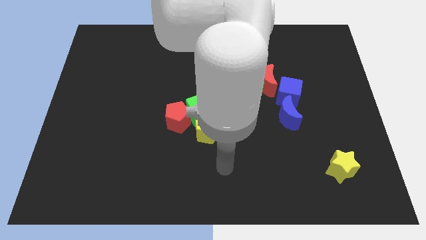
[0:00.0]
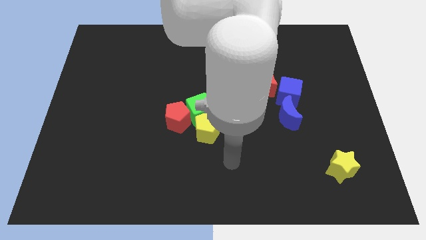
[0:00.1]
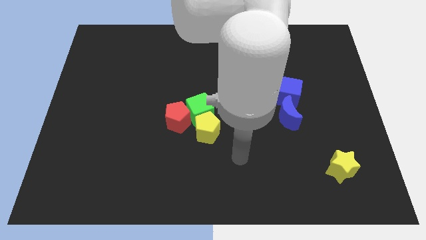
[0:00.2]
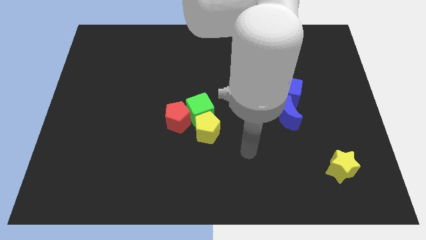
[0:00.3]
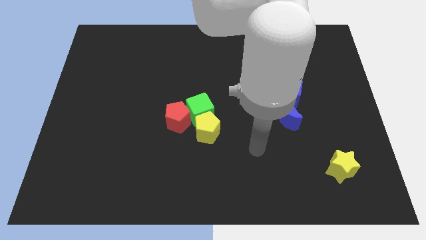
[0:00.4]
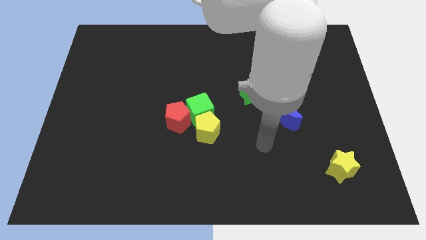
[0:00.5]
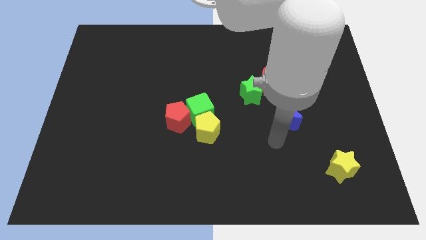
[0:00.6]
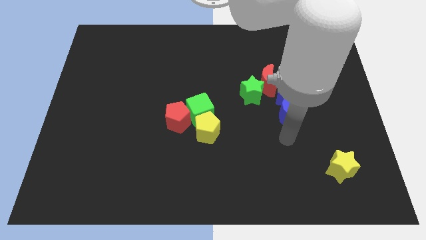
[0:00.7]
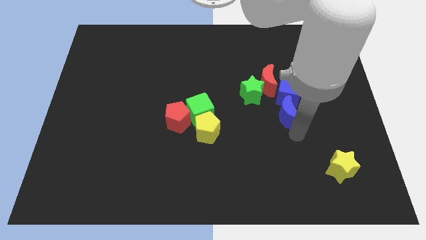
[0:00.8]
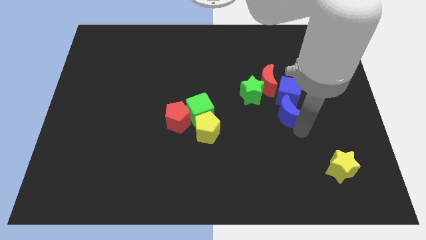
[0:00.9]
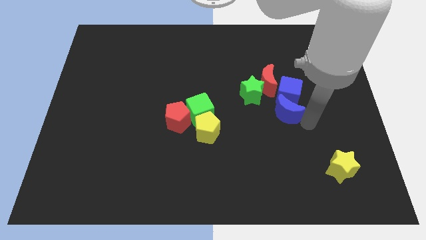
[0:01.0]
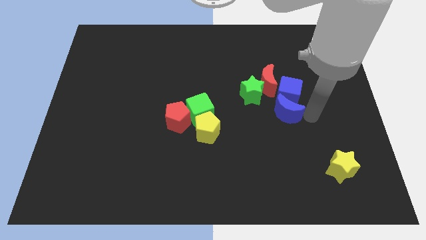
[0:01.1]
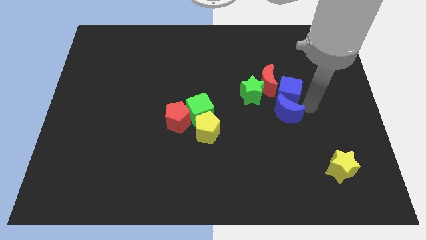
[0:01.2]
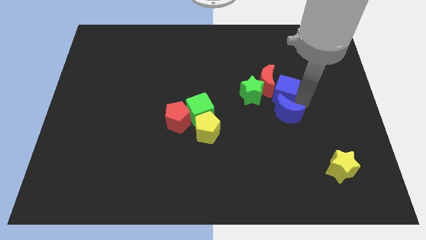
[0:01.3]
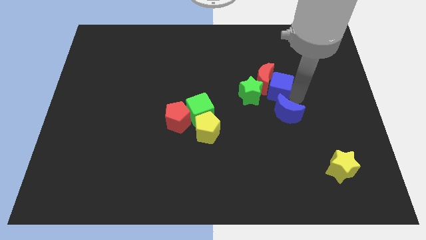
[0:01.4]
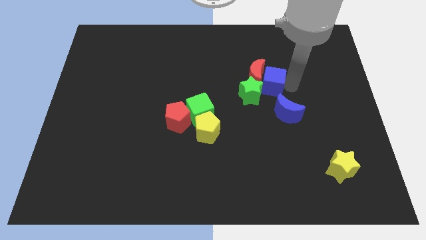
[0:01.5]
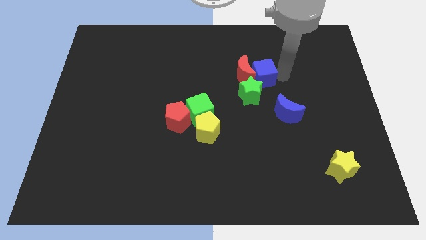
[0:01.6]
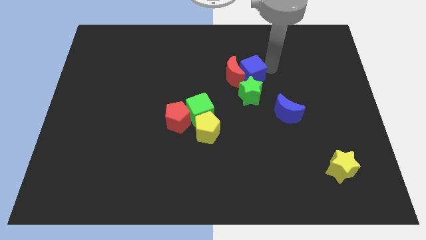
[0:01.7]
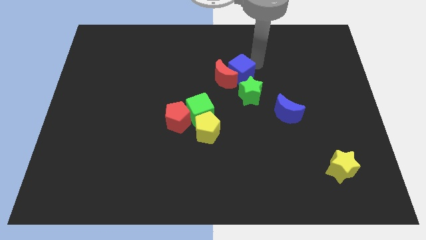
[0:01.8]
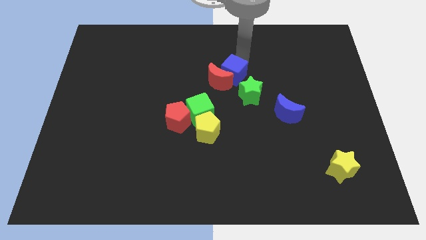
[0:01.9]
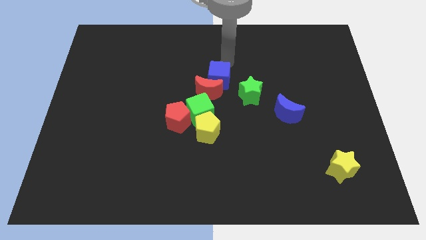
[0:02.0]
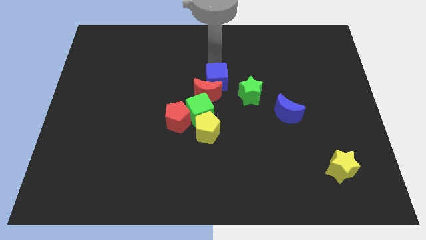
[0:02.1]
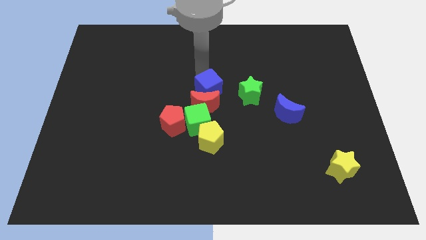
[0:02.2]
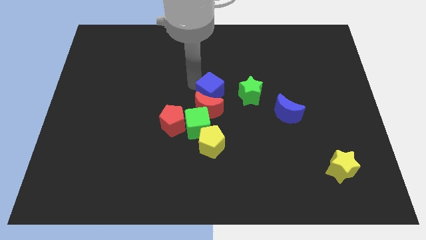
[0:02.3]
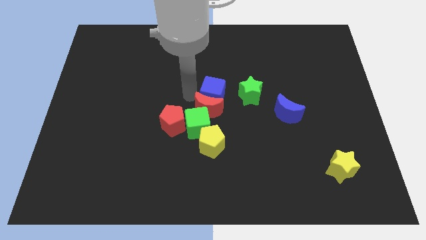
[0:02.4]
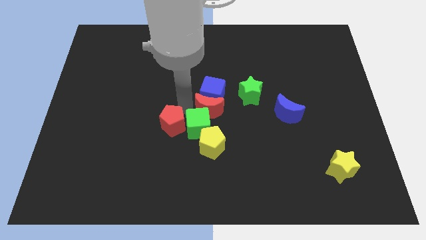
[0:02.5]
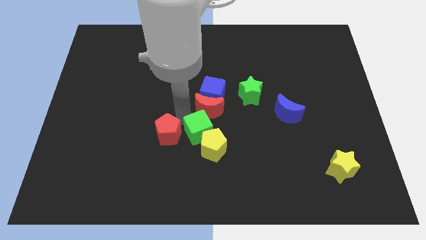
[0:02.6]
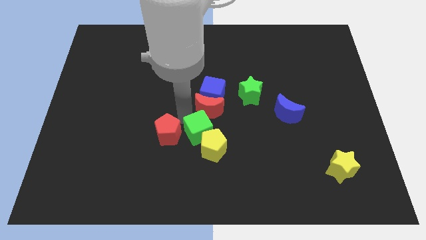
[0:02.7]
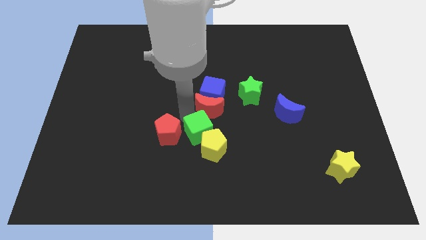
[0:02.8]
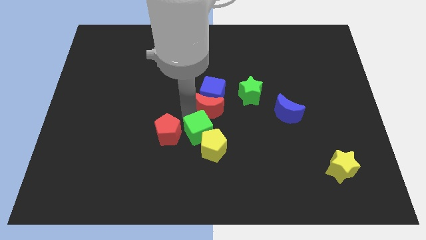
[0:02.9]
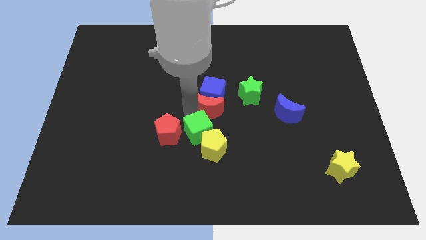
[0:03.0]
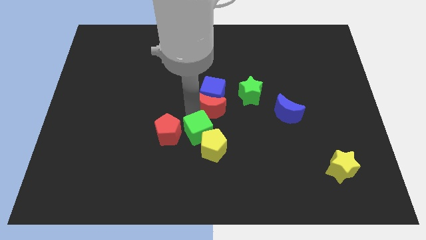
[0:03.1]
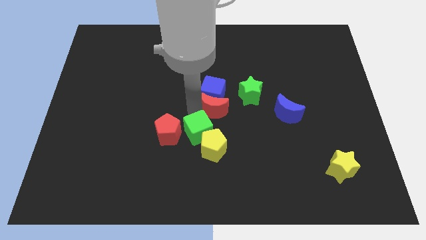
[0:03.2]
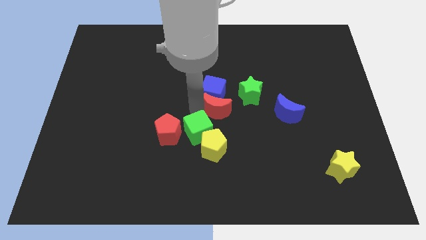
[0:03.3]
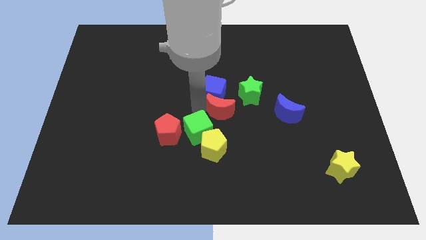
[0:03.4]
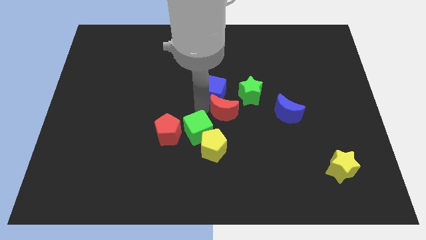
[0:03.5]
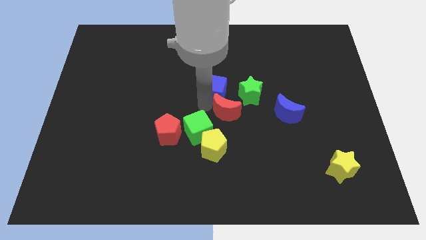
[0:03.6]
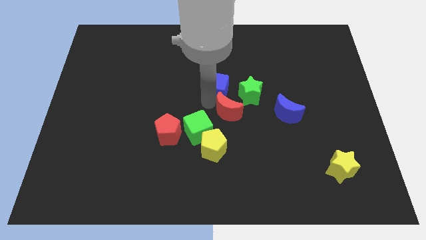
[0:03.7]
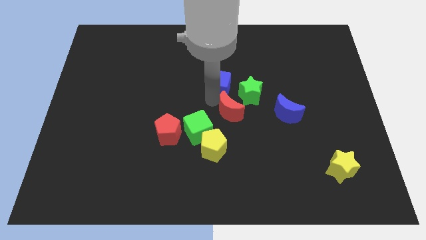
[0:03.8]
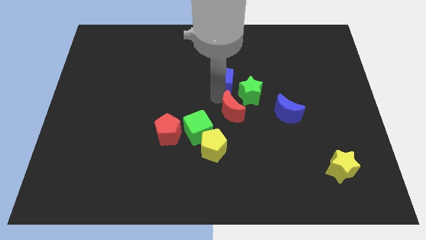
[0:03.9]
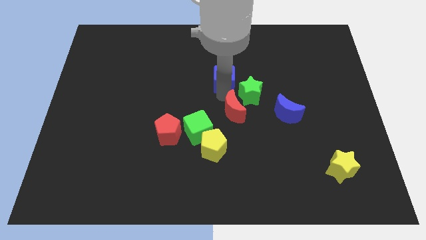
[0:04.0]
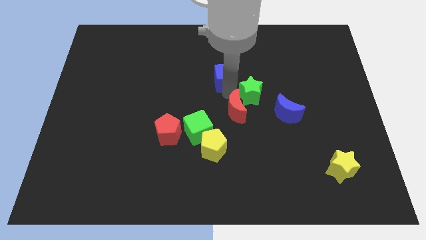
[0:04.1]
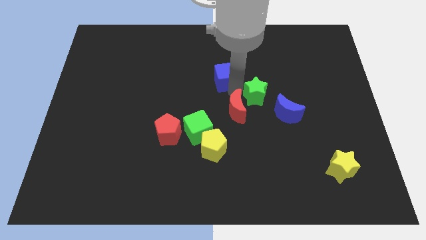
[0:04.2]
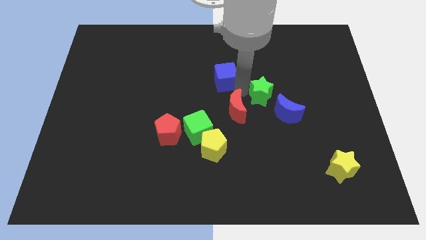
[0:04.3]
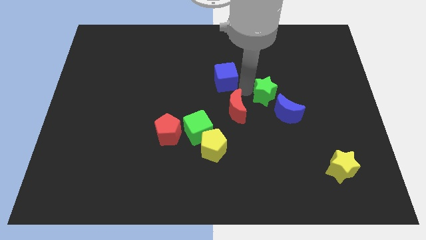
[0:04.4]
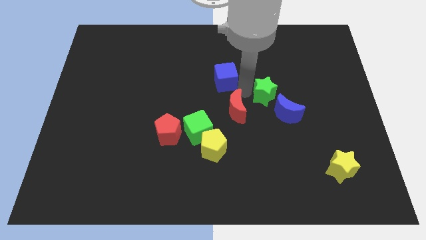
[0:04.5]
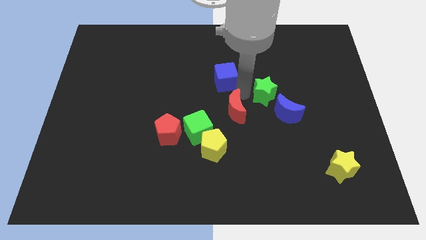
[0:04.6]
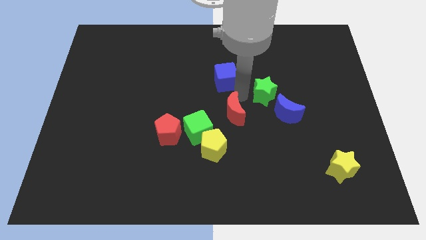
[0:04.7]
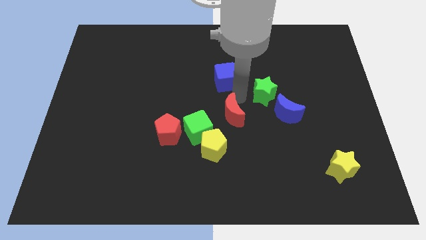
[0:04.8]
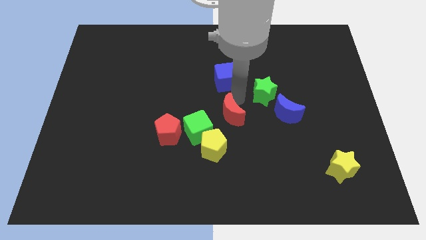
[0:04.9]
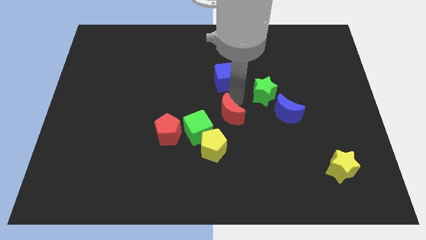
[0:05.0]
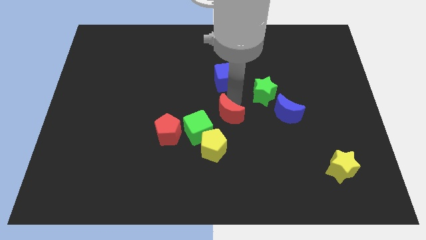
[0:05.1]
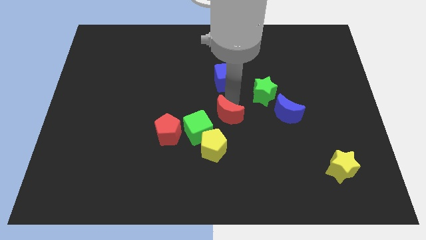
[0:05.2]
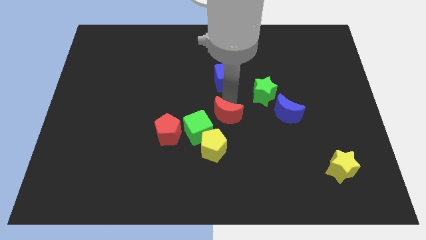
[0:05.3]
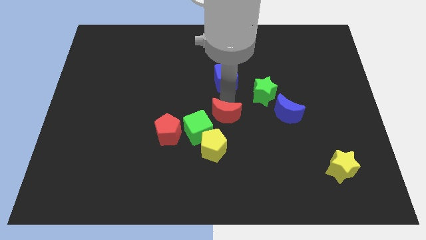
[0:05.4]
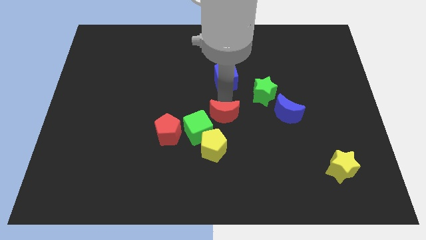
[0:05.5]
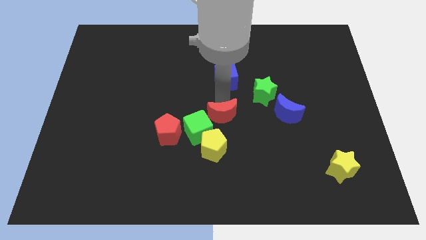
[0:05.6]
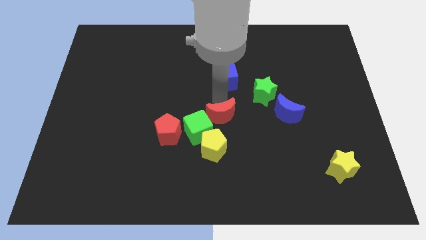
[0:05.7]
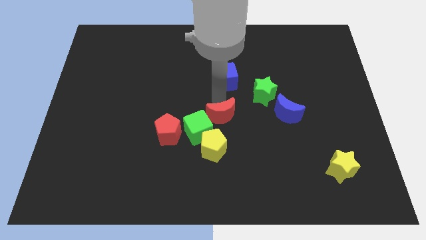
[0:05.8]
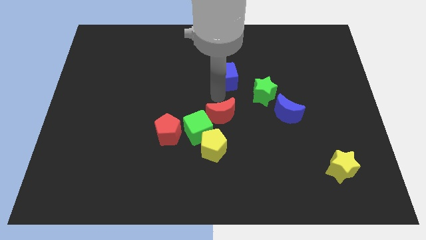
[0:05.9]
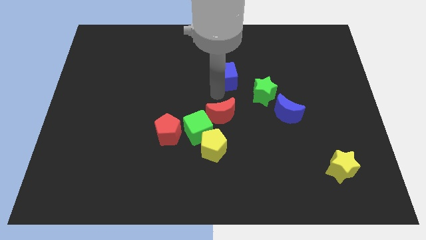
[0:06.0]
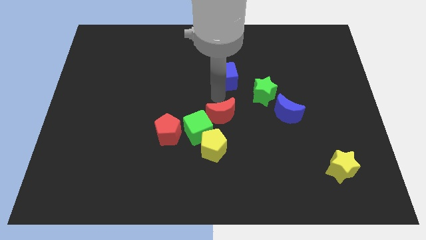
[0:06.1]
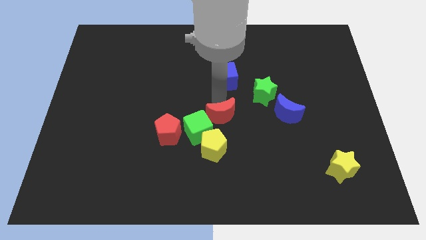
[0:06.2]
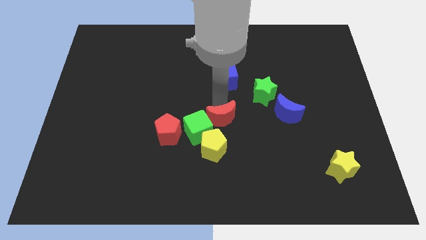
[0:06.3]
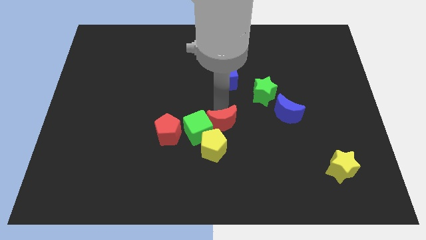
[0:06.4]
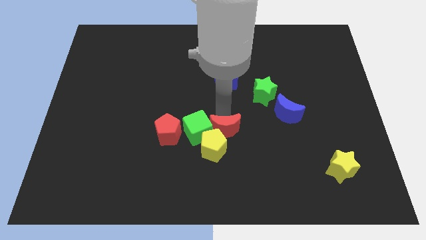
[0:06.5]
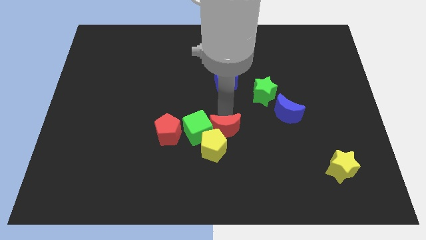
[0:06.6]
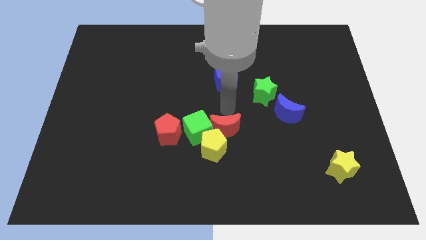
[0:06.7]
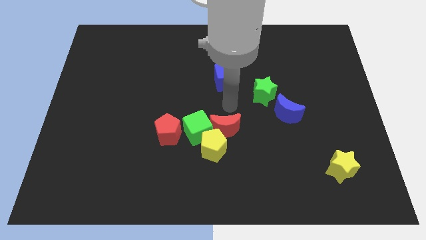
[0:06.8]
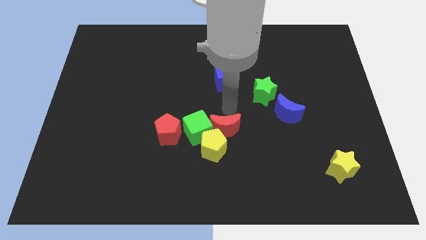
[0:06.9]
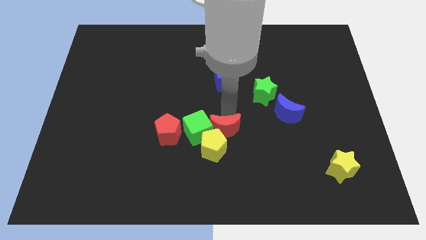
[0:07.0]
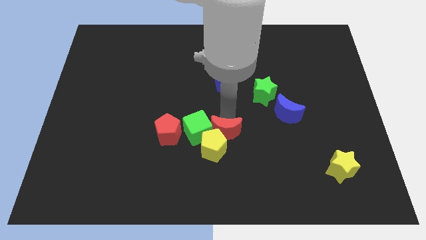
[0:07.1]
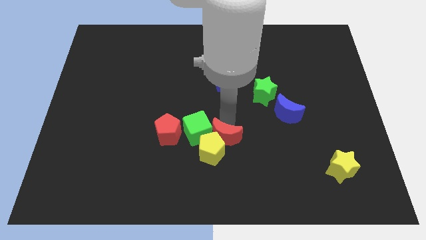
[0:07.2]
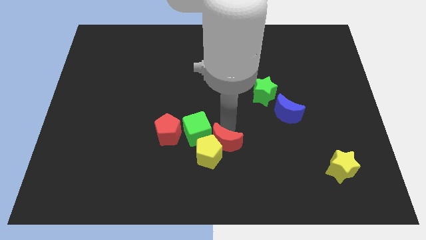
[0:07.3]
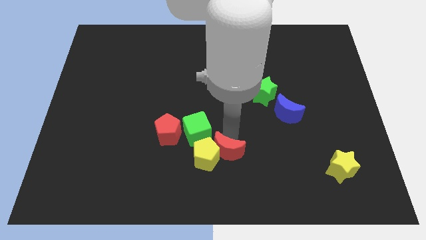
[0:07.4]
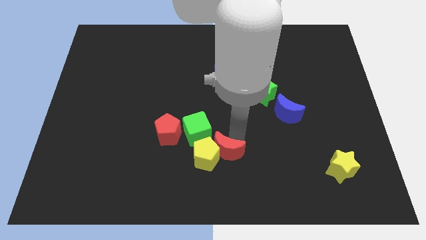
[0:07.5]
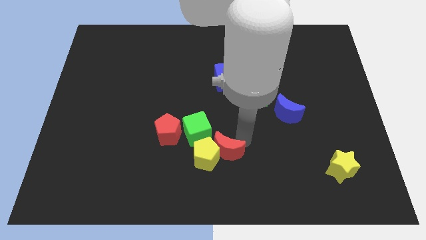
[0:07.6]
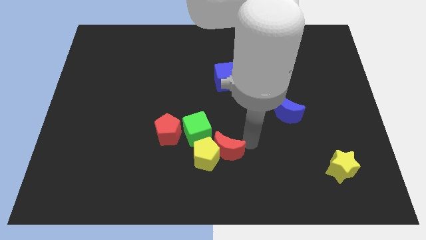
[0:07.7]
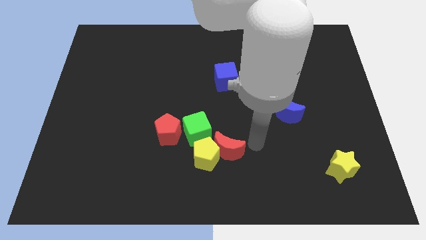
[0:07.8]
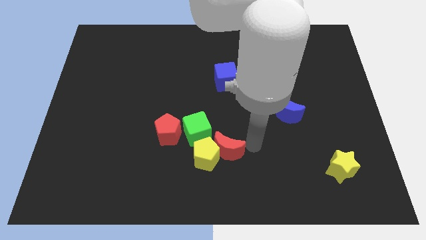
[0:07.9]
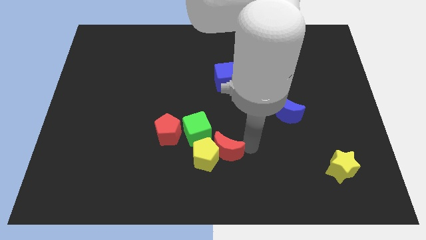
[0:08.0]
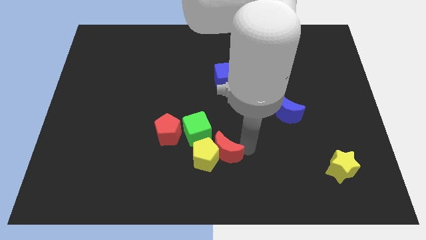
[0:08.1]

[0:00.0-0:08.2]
slide the red moon diagonally down and to the left
